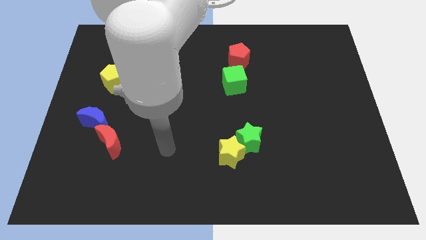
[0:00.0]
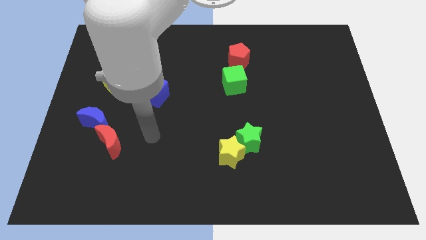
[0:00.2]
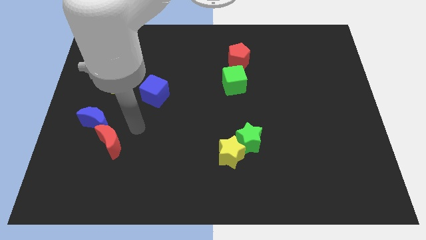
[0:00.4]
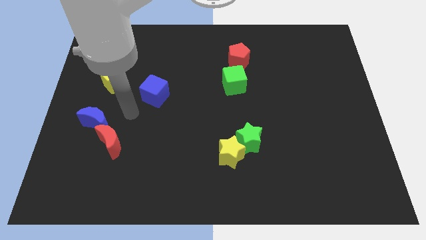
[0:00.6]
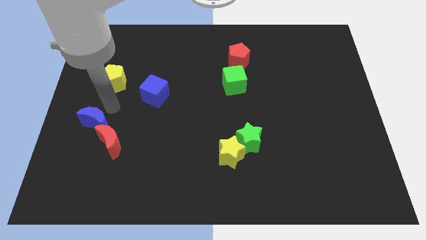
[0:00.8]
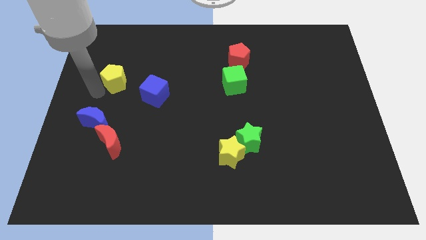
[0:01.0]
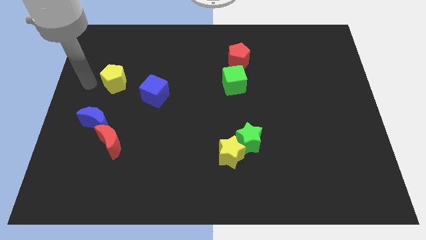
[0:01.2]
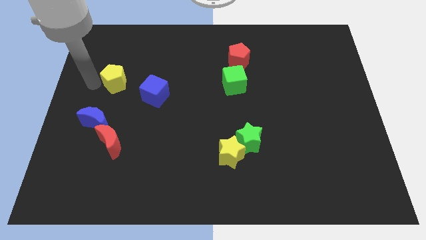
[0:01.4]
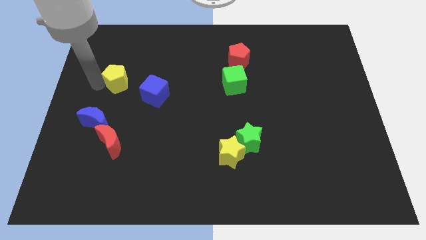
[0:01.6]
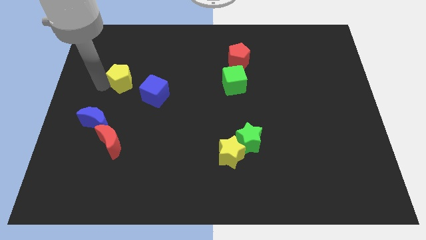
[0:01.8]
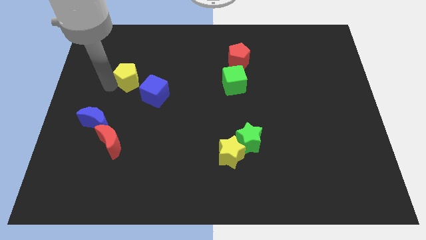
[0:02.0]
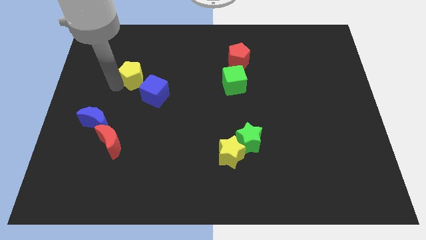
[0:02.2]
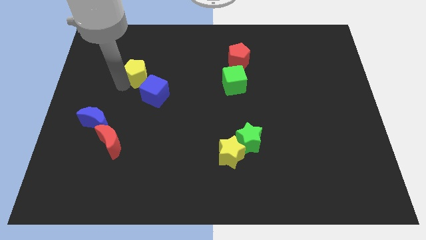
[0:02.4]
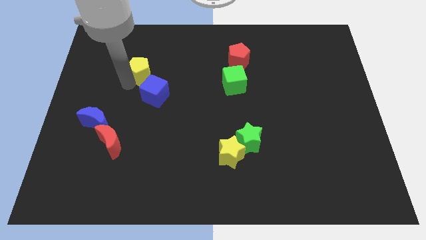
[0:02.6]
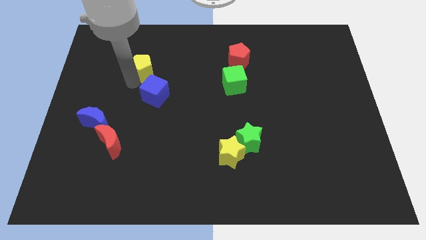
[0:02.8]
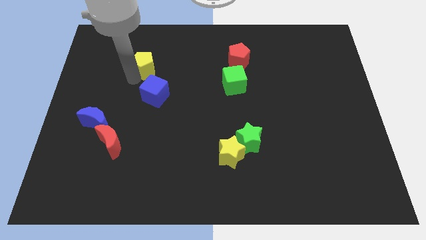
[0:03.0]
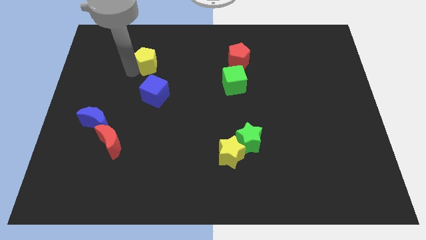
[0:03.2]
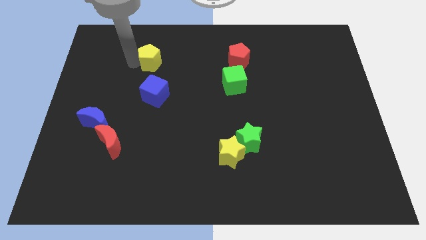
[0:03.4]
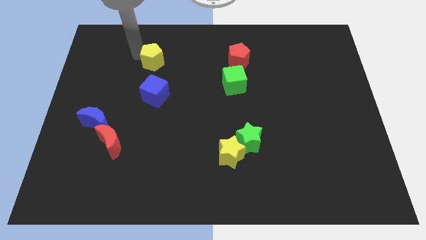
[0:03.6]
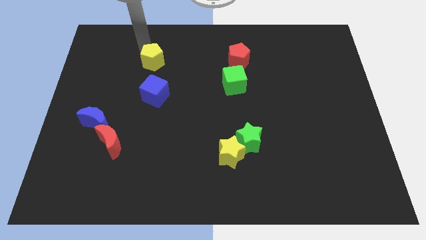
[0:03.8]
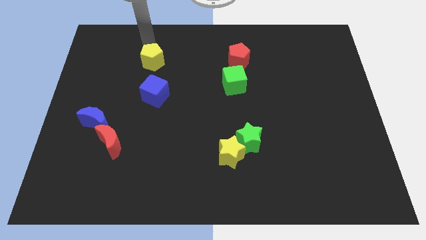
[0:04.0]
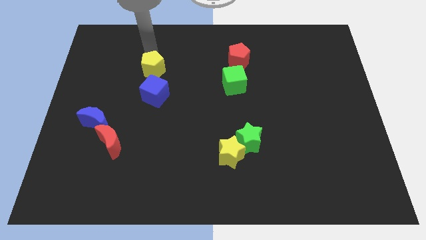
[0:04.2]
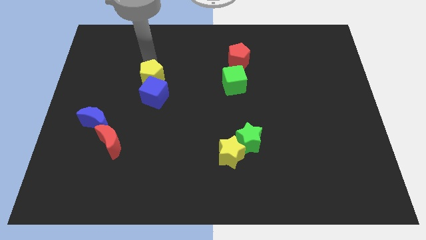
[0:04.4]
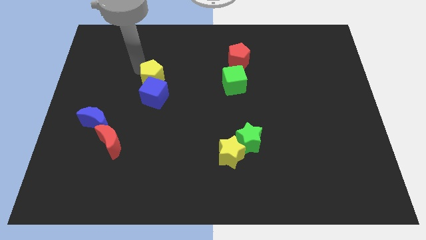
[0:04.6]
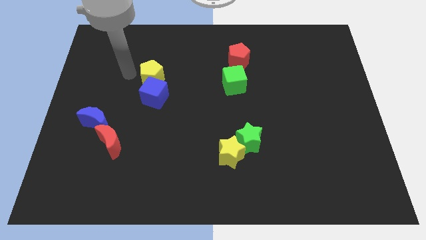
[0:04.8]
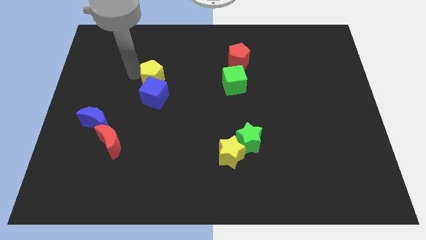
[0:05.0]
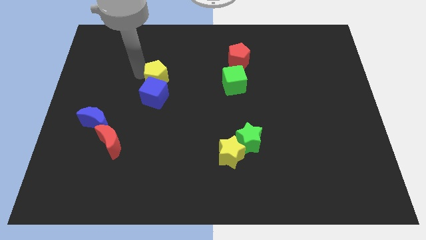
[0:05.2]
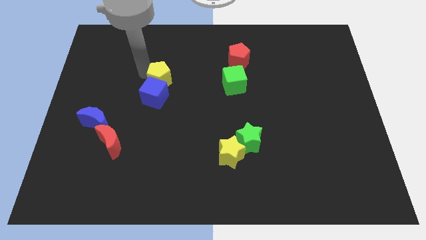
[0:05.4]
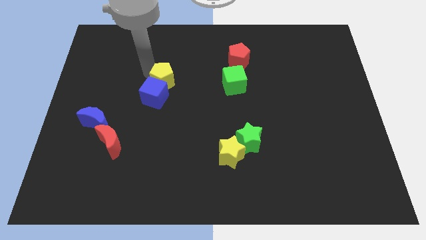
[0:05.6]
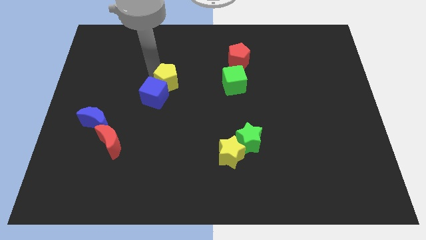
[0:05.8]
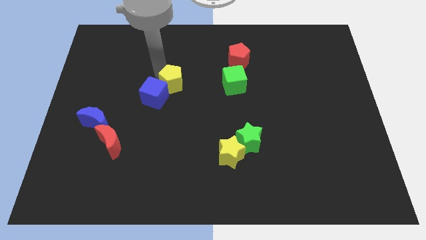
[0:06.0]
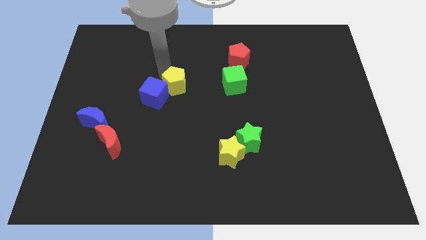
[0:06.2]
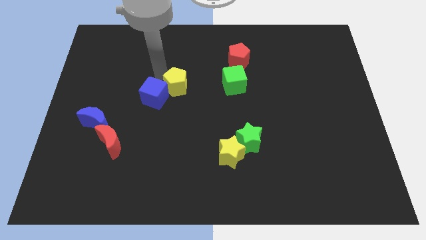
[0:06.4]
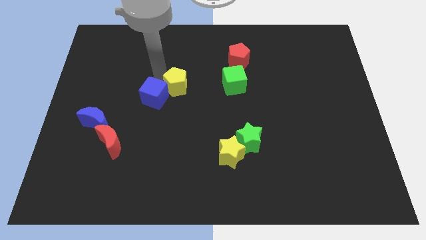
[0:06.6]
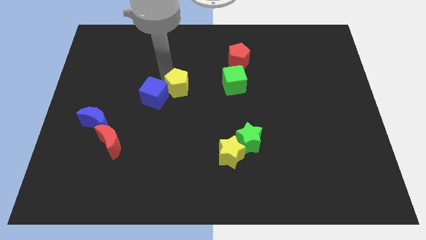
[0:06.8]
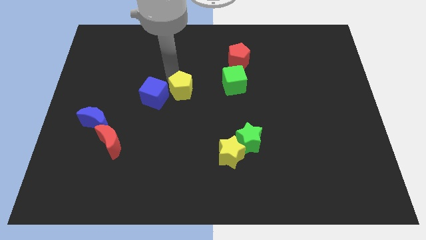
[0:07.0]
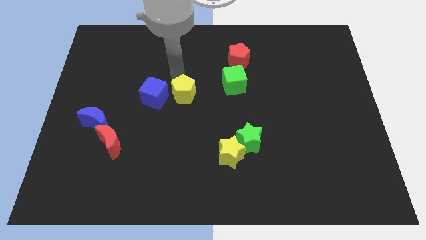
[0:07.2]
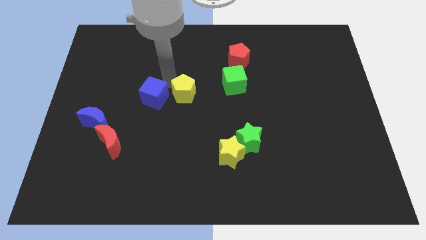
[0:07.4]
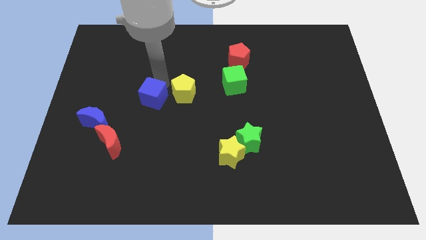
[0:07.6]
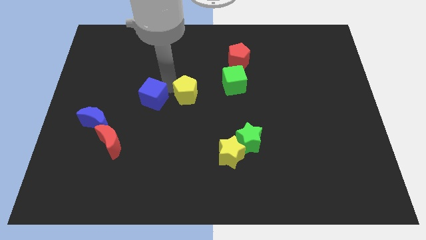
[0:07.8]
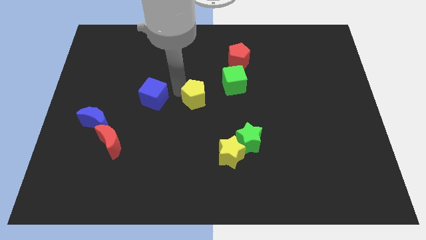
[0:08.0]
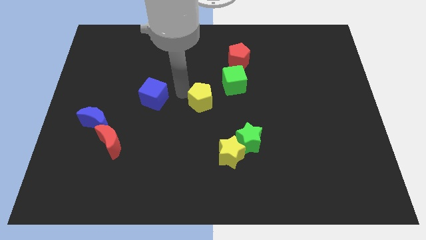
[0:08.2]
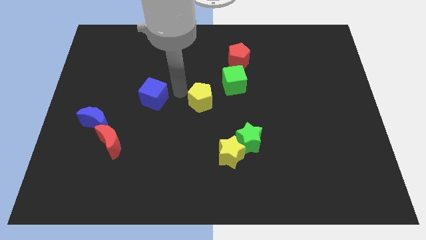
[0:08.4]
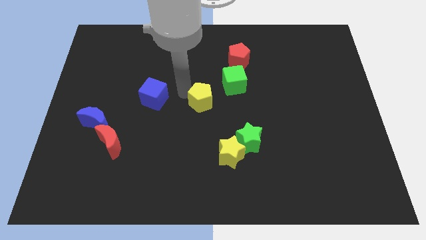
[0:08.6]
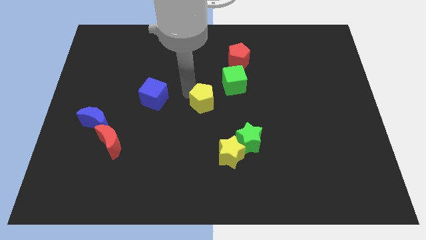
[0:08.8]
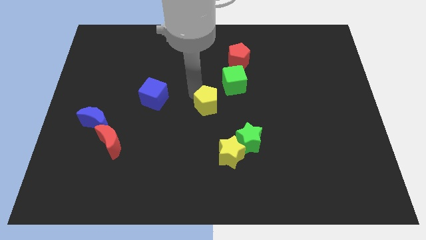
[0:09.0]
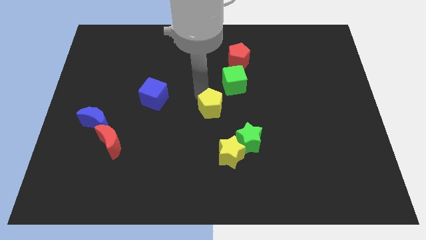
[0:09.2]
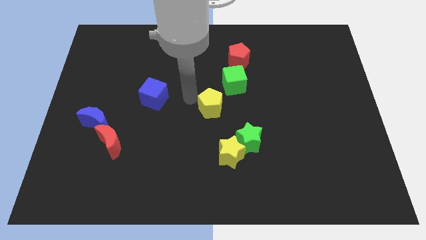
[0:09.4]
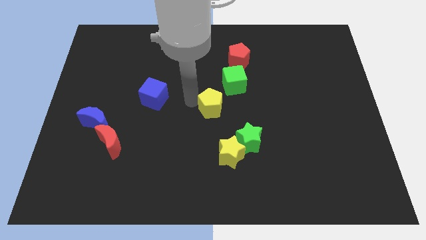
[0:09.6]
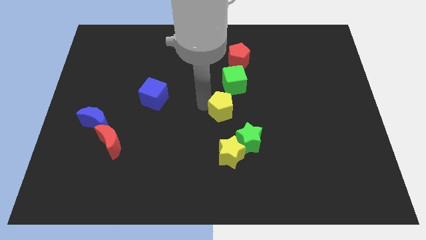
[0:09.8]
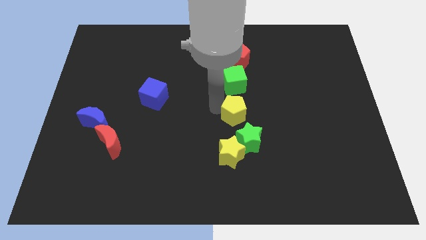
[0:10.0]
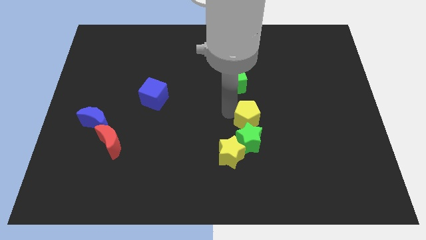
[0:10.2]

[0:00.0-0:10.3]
put the yellow pentagon to the top right side of the green star

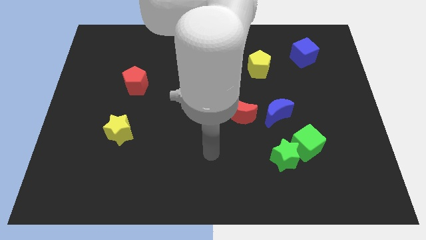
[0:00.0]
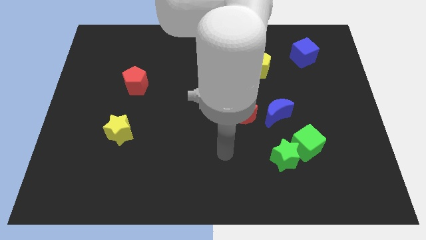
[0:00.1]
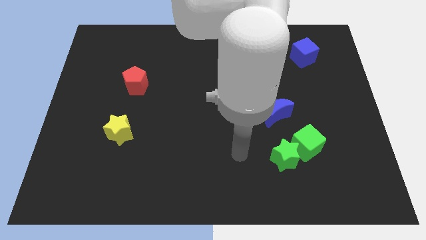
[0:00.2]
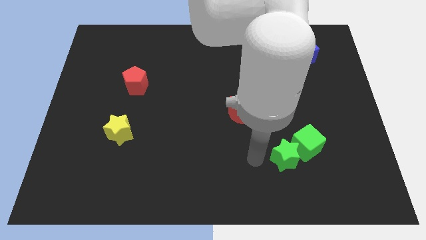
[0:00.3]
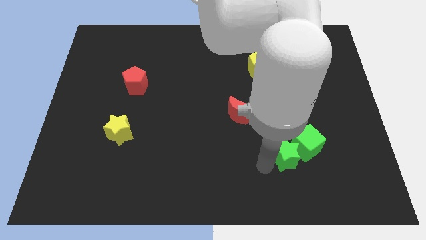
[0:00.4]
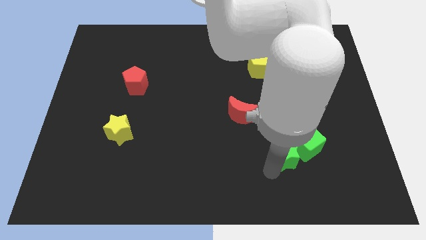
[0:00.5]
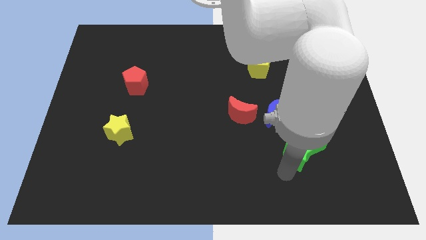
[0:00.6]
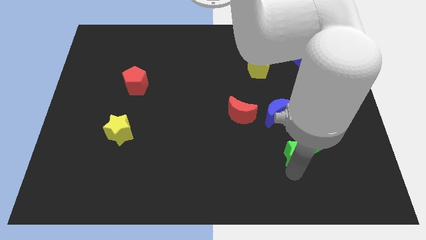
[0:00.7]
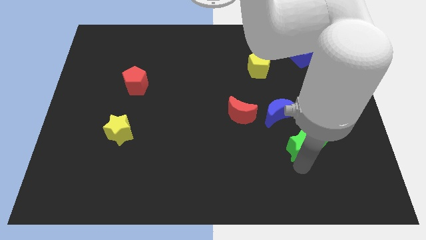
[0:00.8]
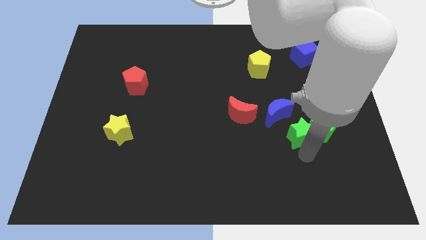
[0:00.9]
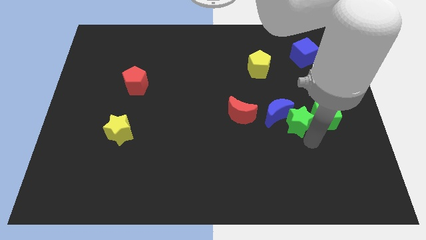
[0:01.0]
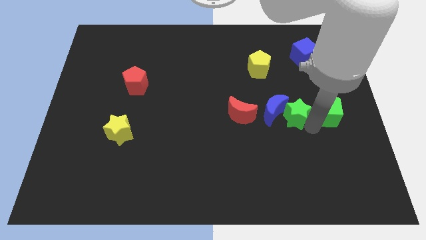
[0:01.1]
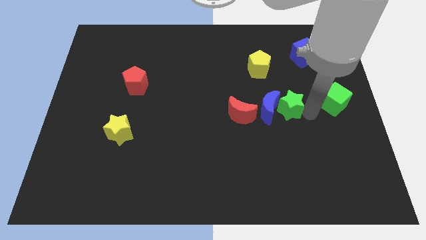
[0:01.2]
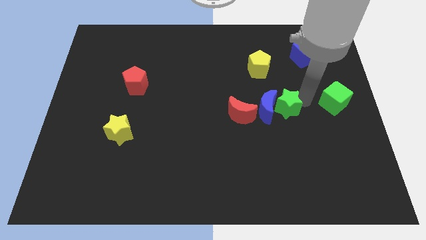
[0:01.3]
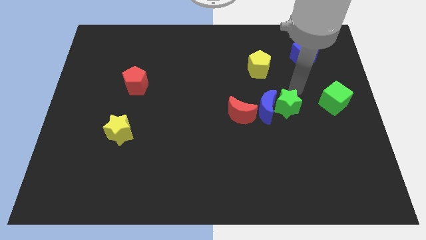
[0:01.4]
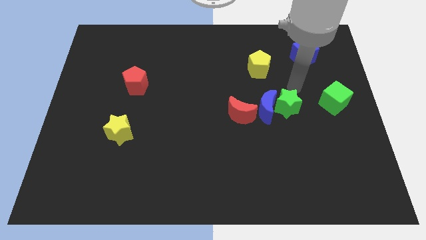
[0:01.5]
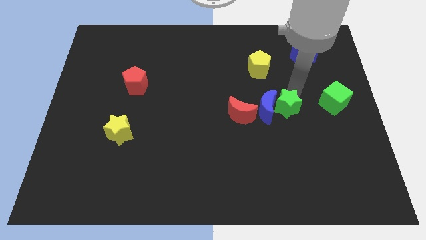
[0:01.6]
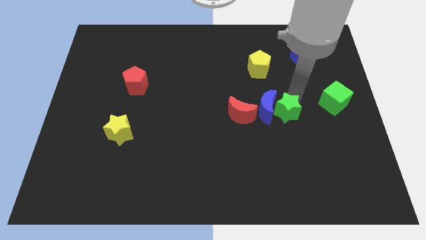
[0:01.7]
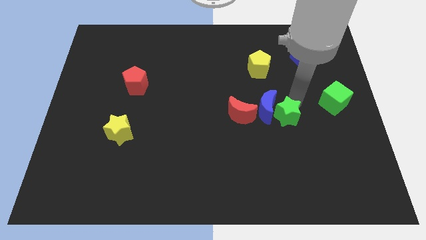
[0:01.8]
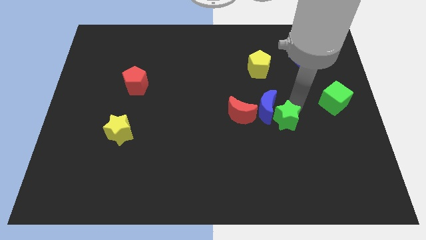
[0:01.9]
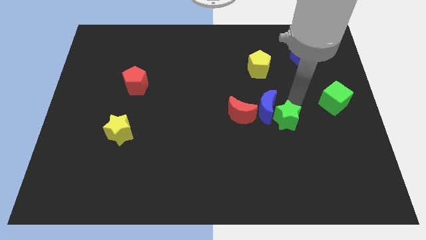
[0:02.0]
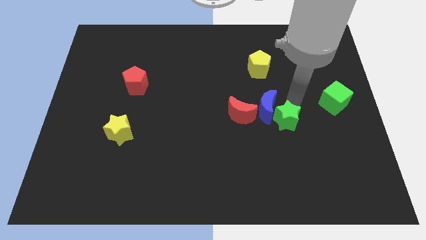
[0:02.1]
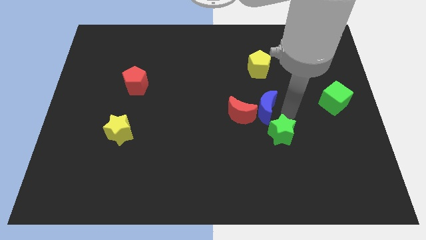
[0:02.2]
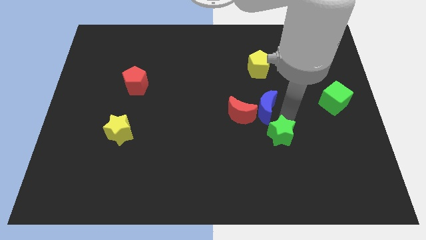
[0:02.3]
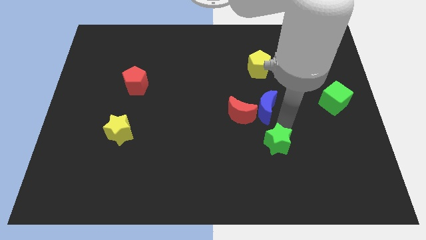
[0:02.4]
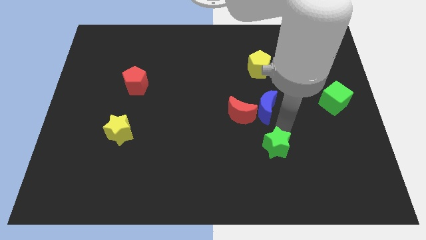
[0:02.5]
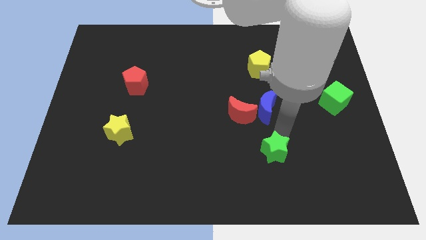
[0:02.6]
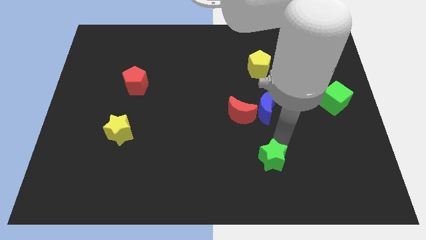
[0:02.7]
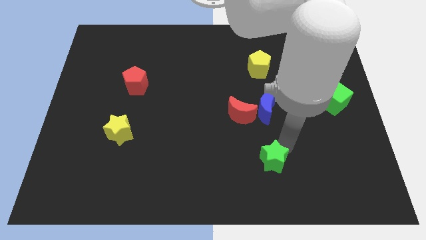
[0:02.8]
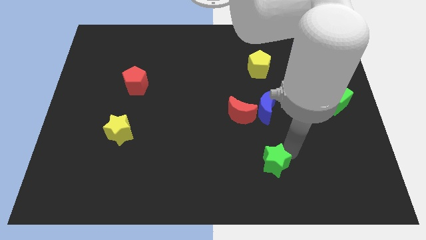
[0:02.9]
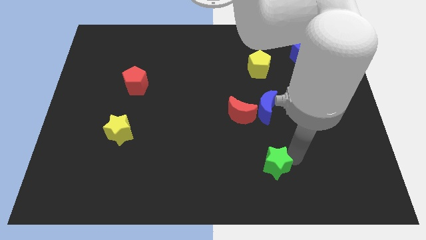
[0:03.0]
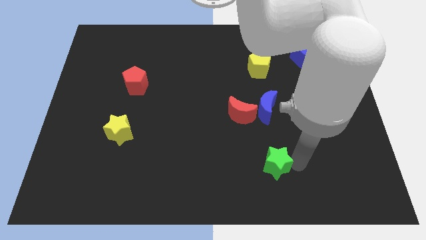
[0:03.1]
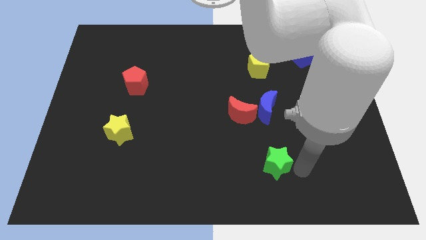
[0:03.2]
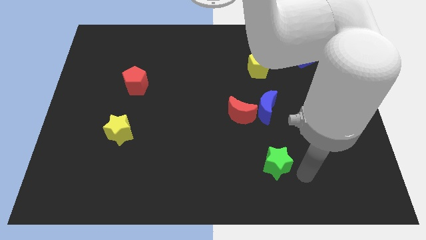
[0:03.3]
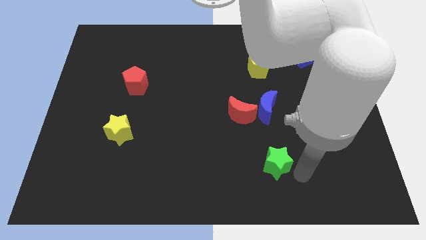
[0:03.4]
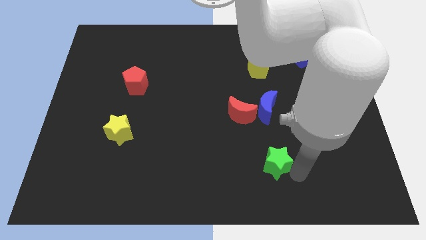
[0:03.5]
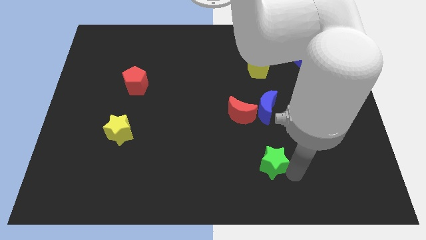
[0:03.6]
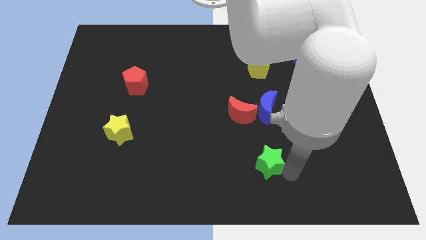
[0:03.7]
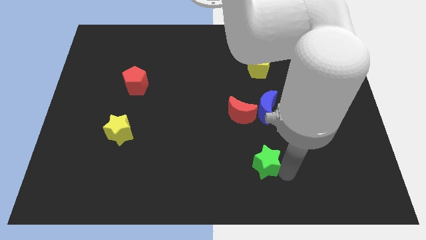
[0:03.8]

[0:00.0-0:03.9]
put the green star to the bottom of the red moon
